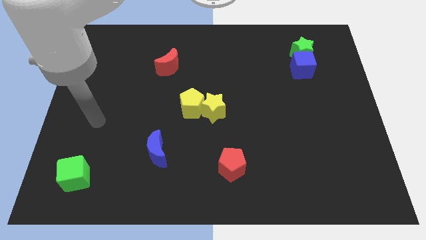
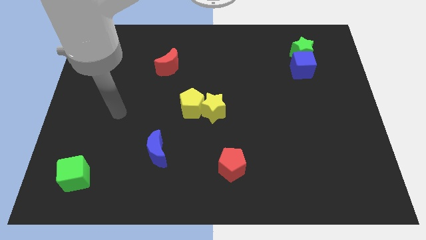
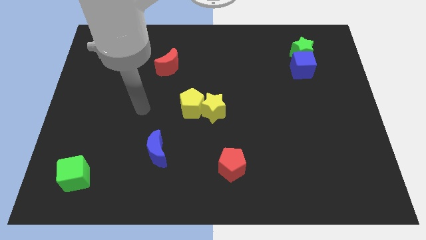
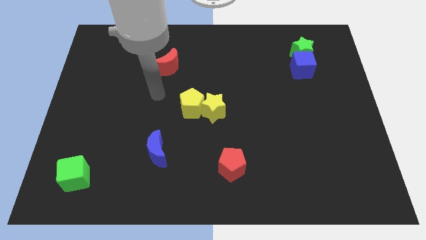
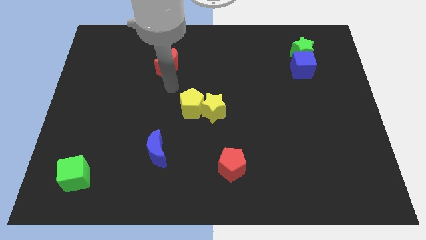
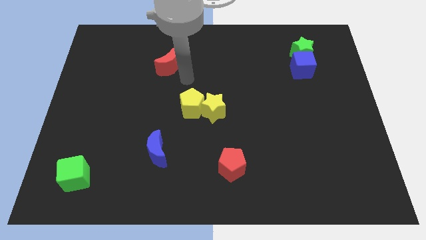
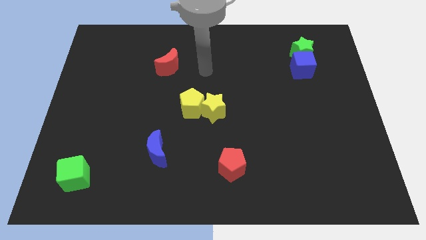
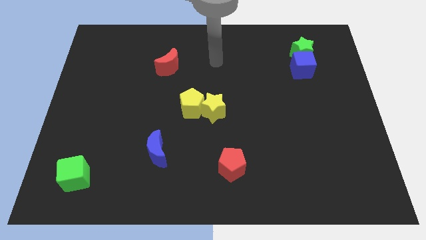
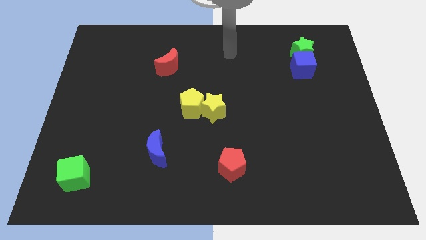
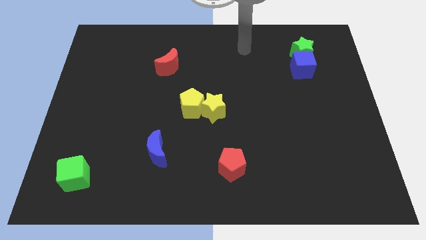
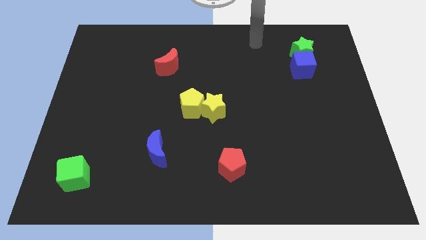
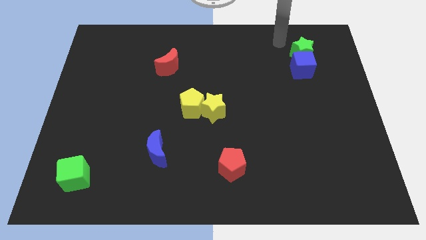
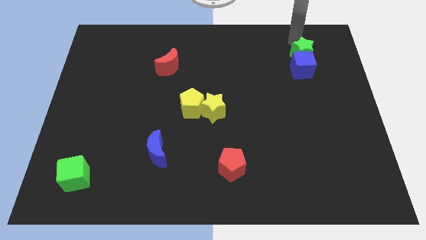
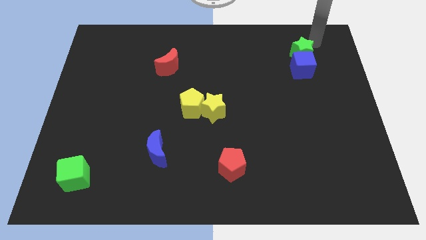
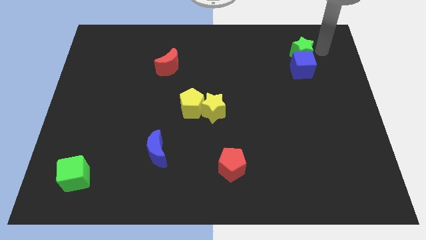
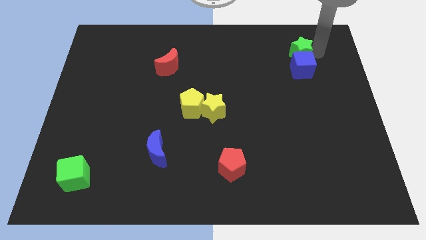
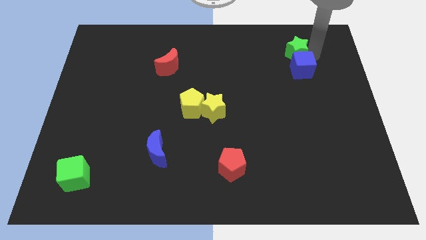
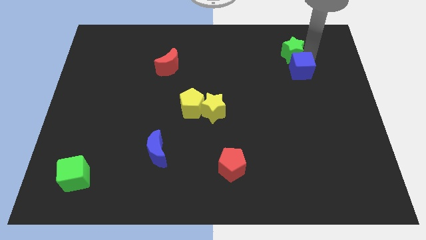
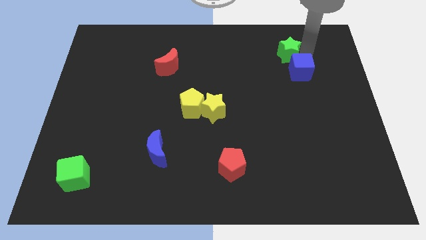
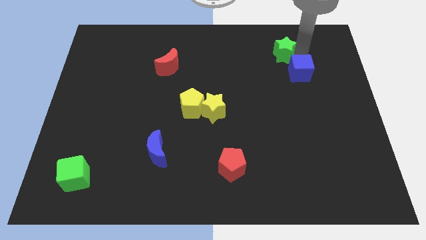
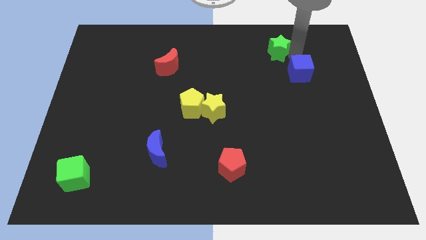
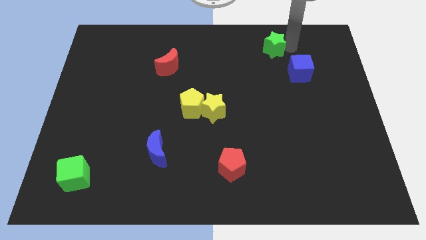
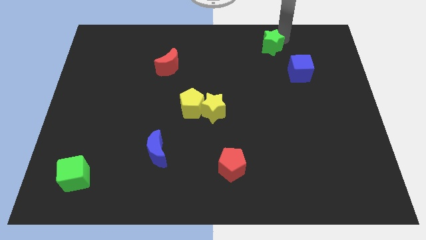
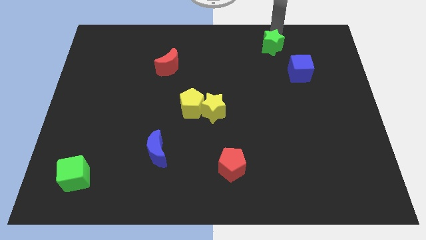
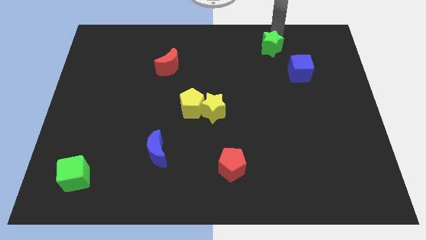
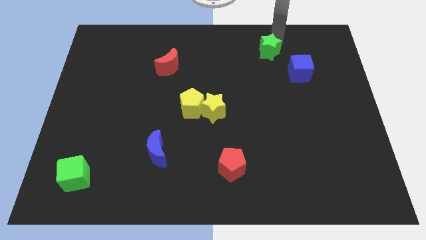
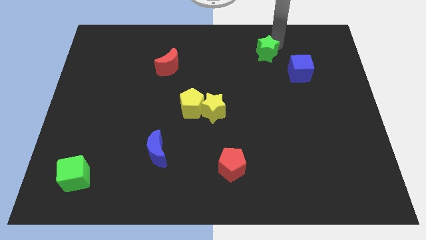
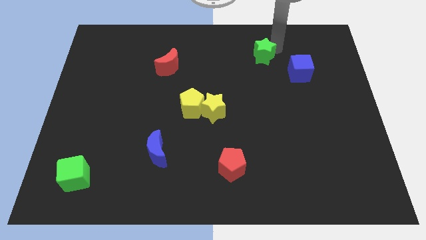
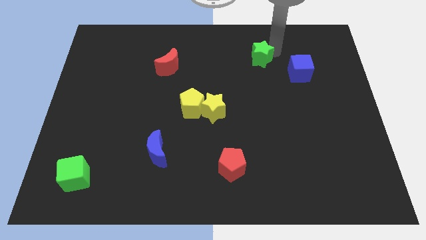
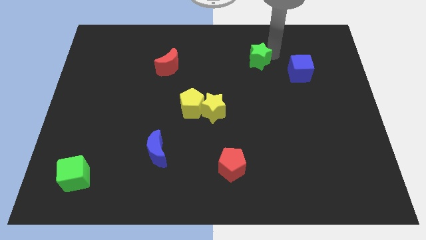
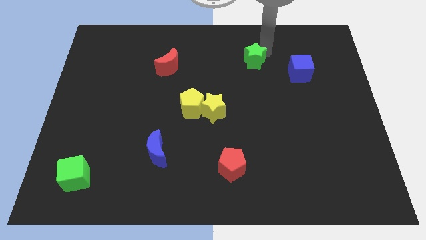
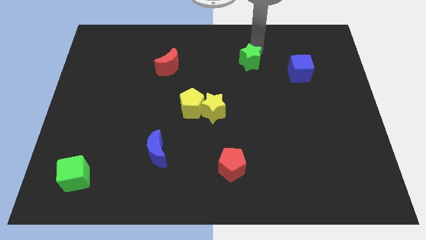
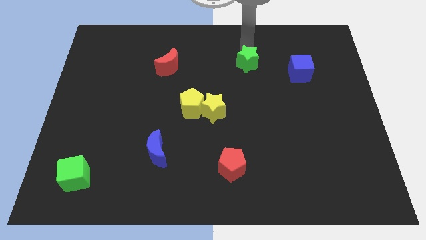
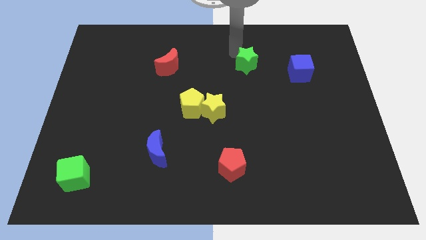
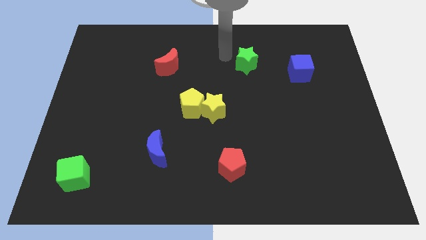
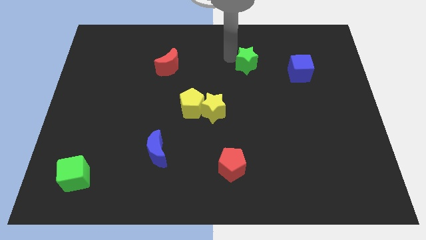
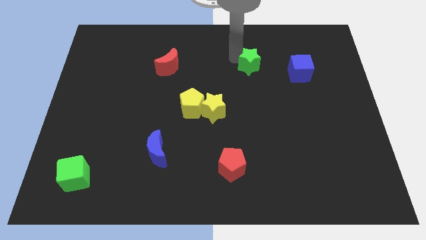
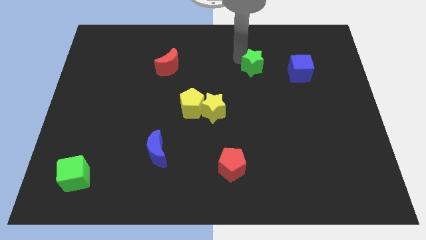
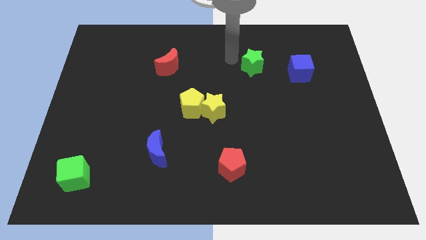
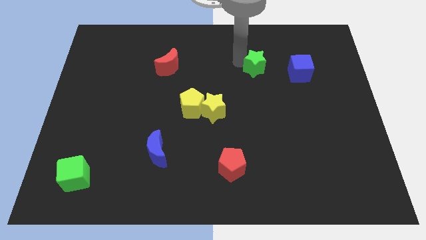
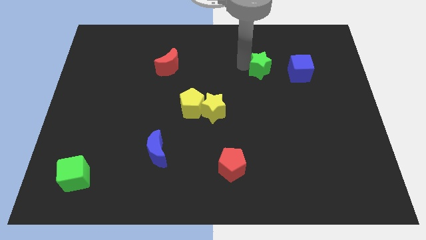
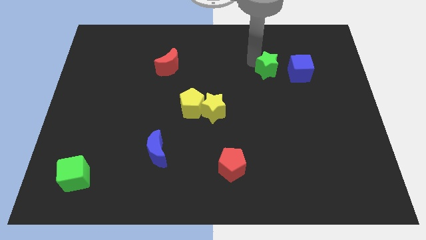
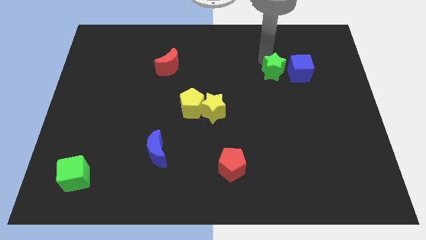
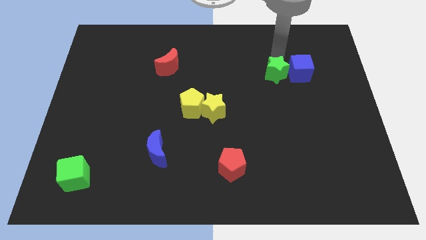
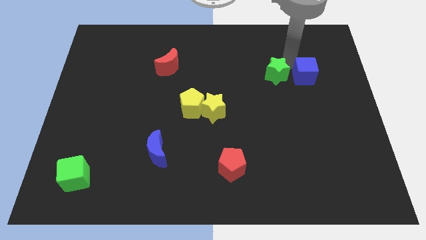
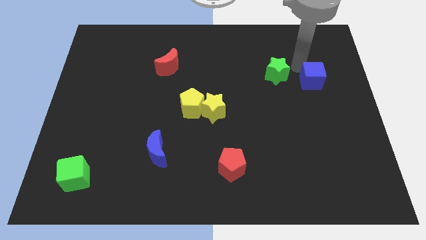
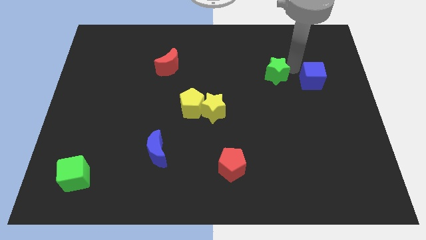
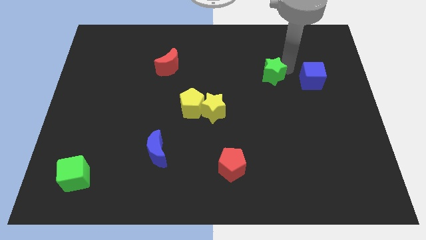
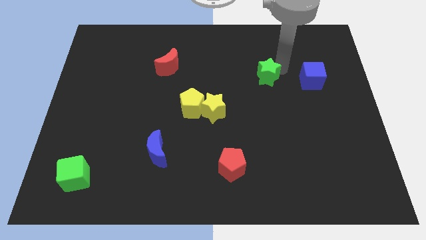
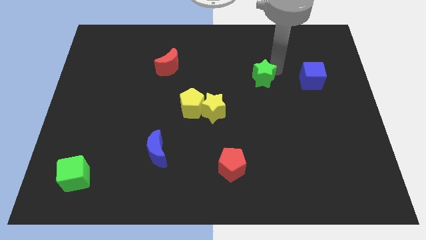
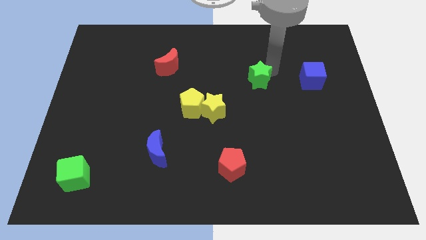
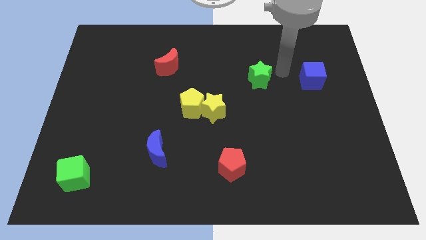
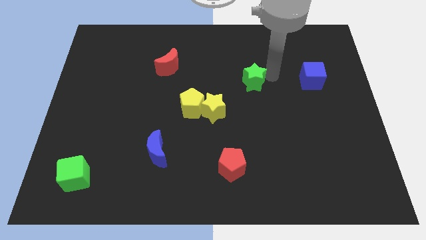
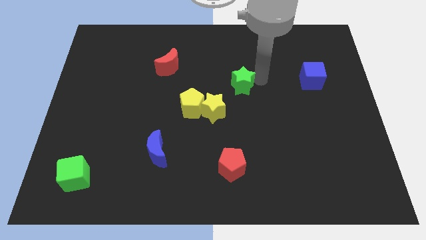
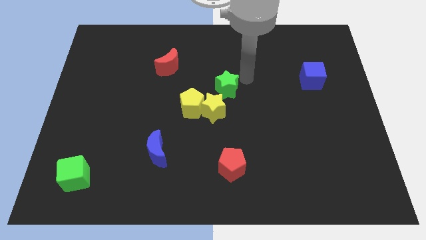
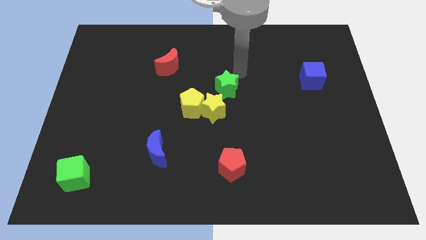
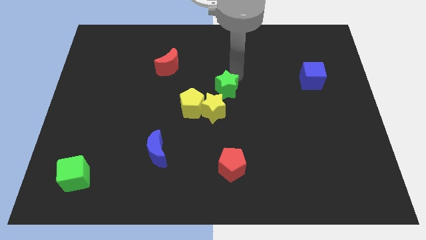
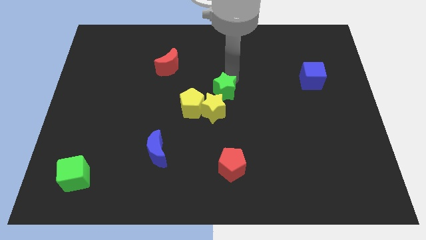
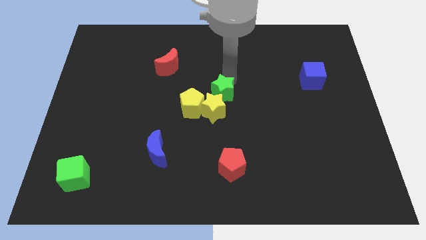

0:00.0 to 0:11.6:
push the green star towards the yellow star

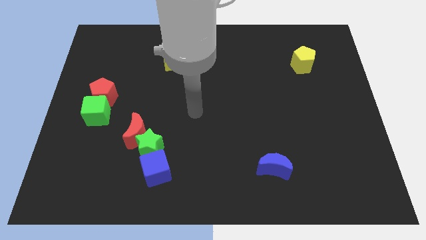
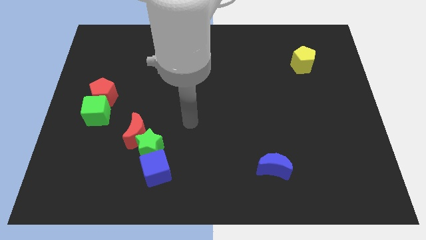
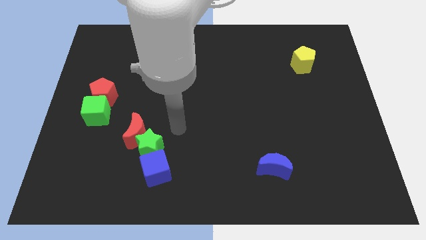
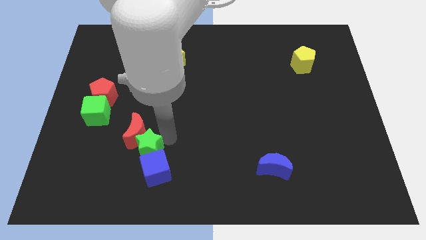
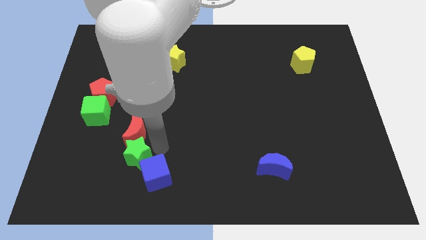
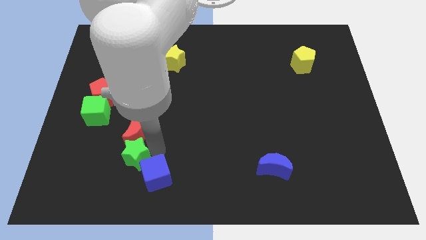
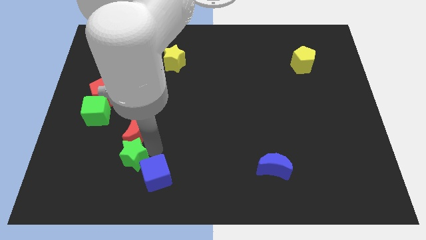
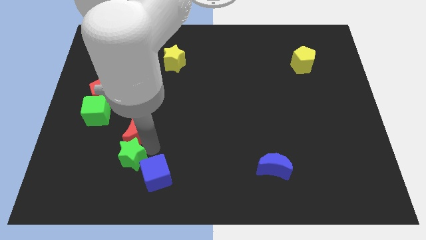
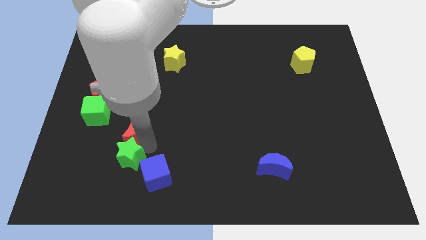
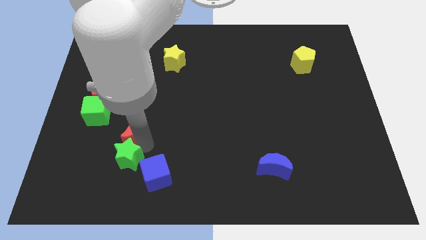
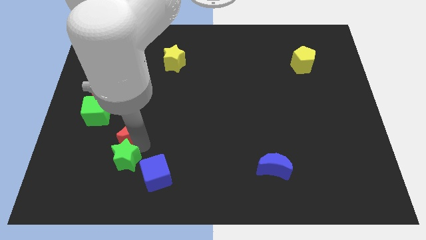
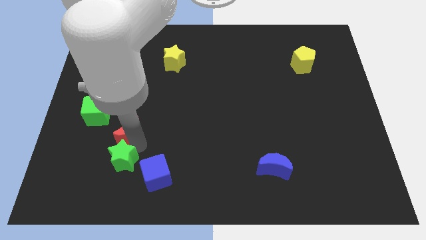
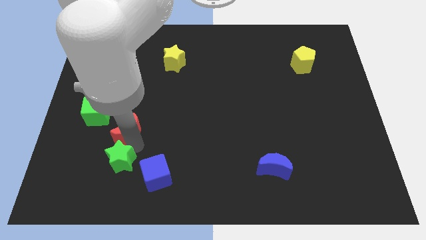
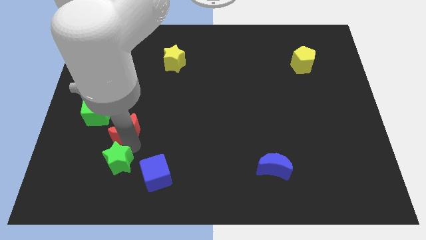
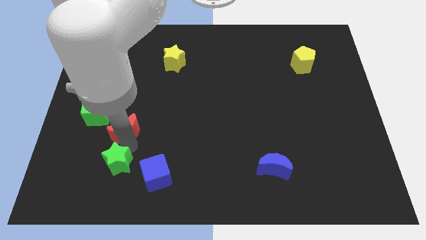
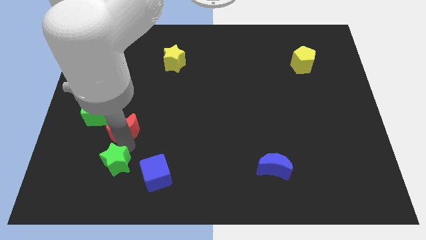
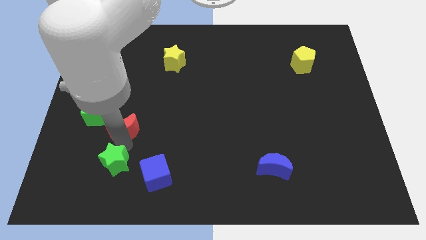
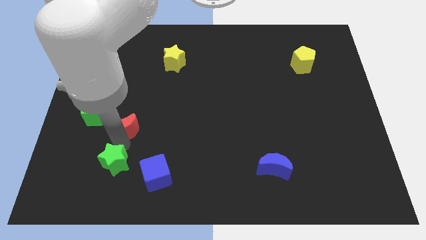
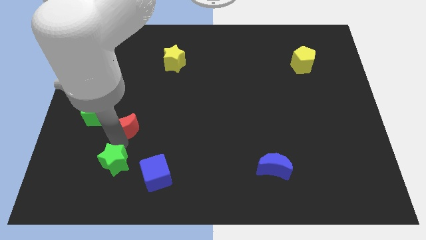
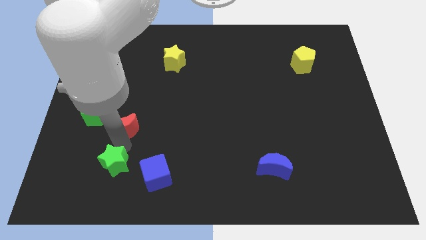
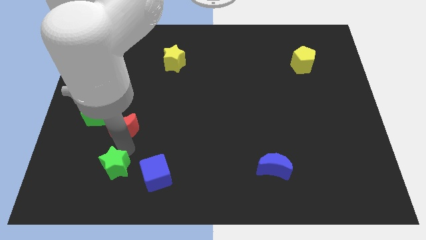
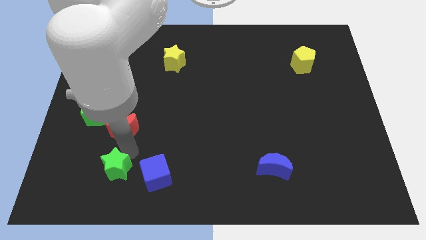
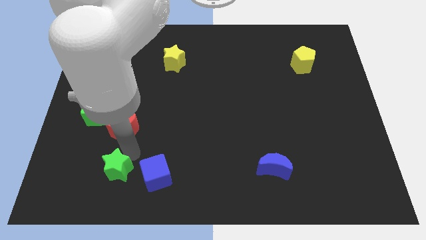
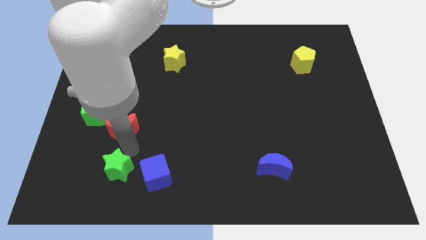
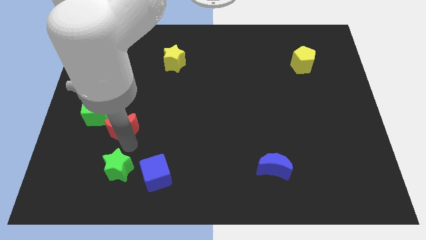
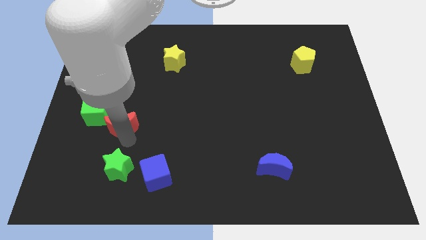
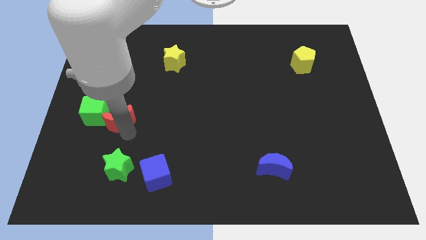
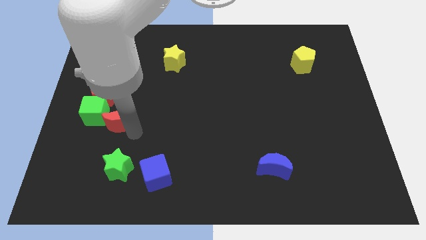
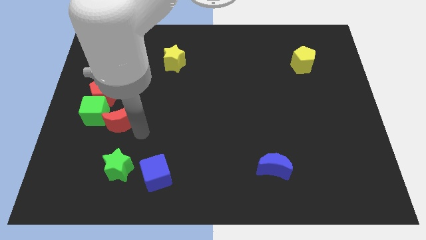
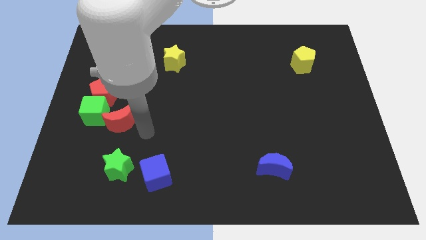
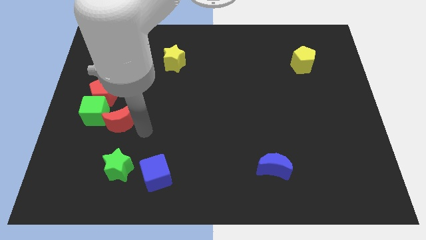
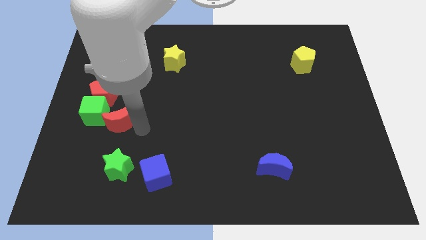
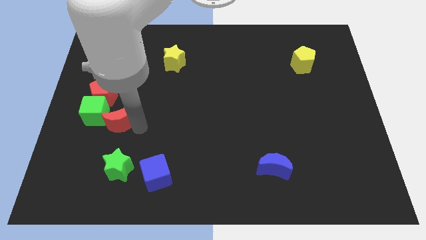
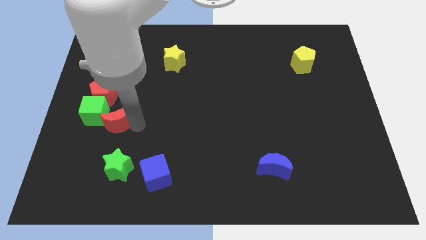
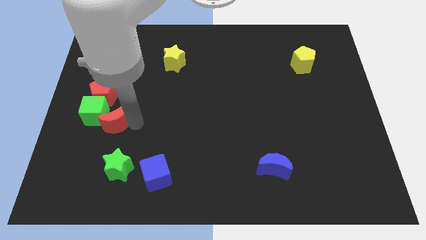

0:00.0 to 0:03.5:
move the red moon towards the green cube
